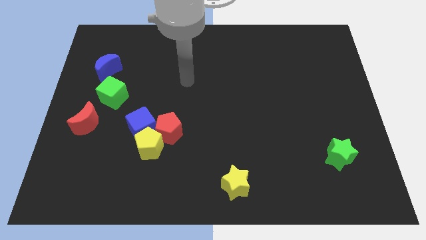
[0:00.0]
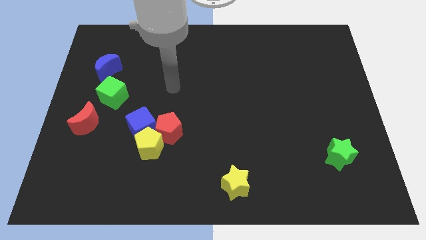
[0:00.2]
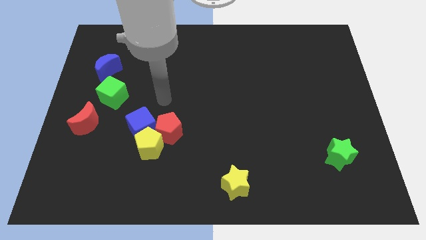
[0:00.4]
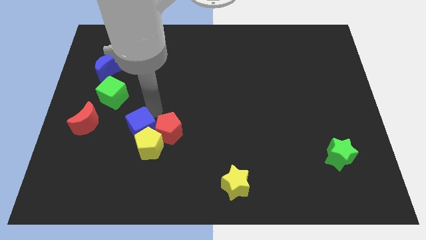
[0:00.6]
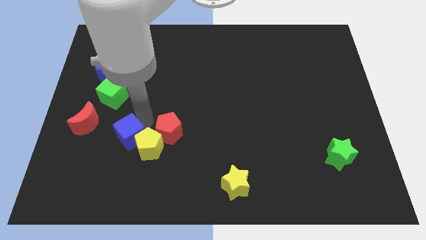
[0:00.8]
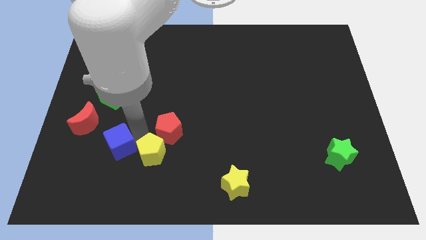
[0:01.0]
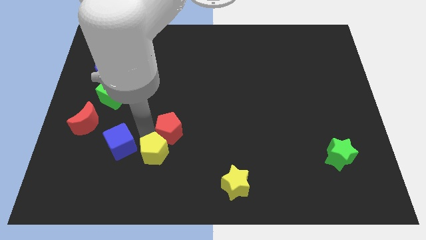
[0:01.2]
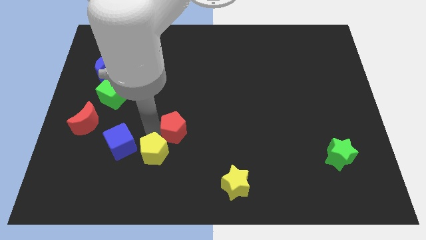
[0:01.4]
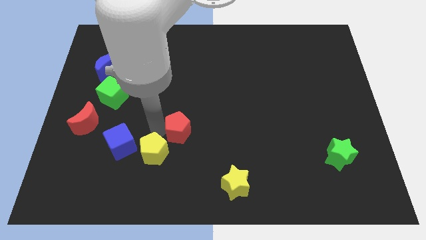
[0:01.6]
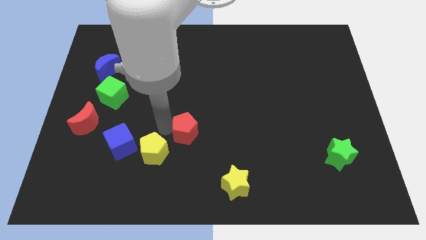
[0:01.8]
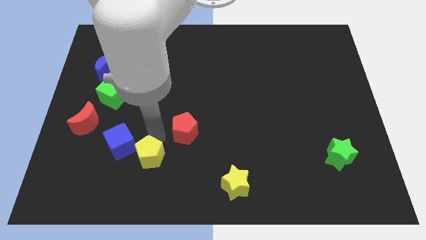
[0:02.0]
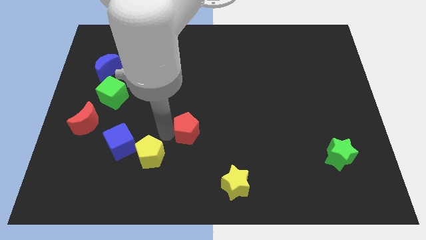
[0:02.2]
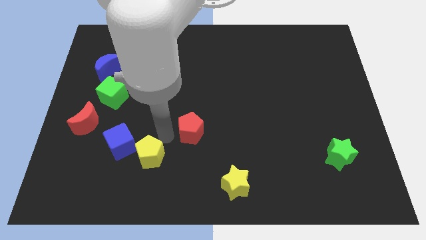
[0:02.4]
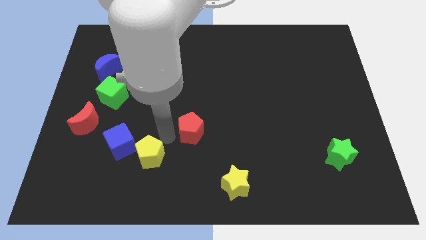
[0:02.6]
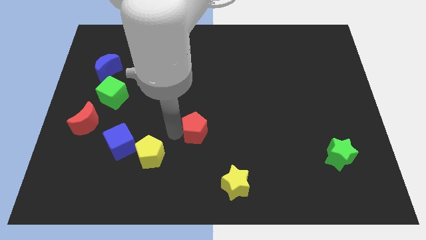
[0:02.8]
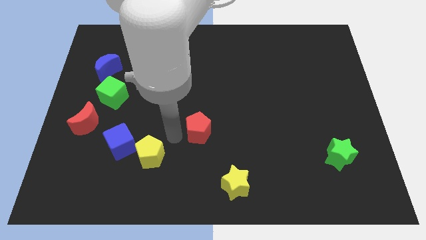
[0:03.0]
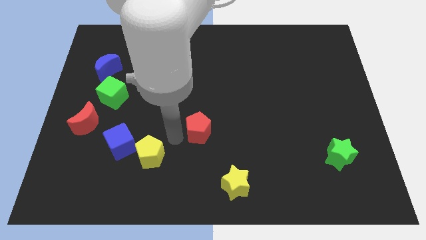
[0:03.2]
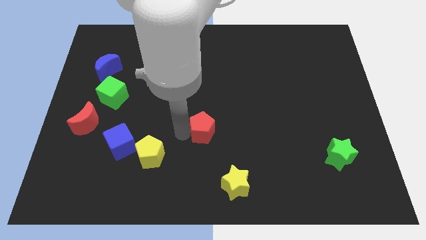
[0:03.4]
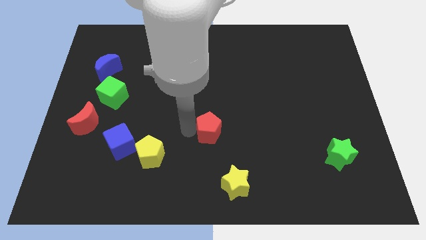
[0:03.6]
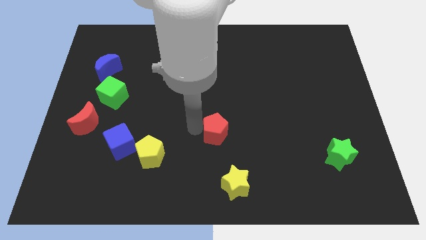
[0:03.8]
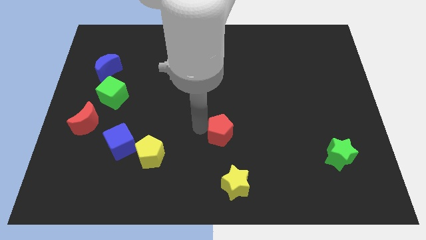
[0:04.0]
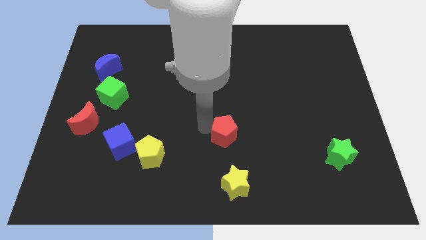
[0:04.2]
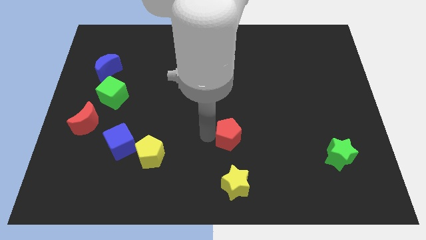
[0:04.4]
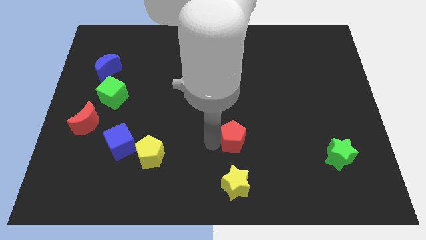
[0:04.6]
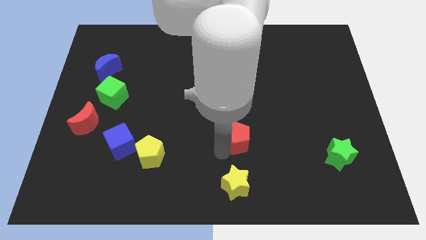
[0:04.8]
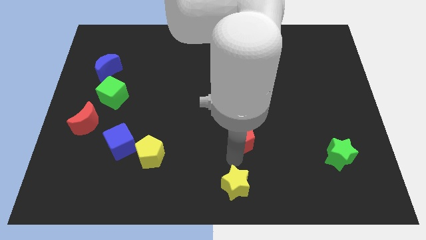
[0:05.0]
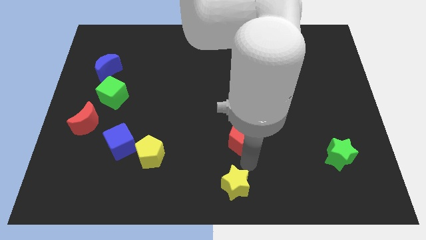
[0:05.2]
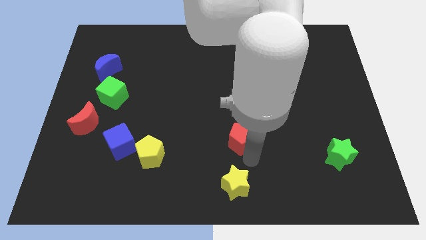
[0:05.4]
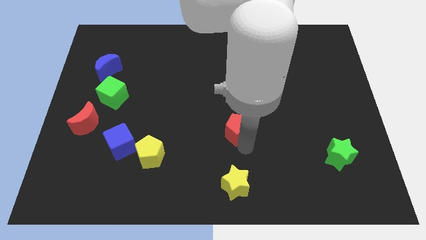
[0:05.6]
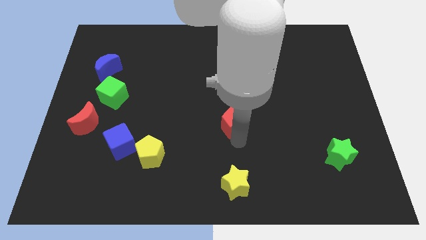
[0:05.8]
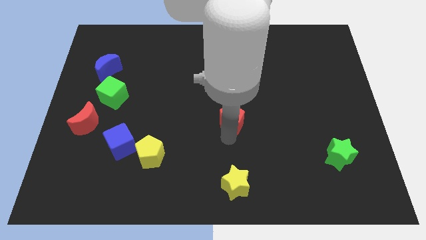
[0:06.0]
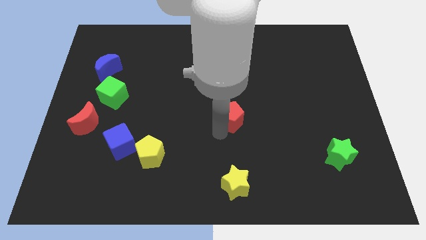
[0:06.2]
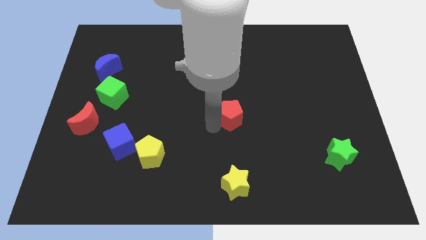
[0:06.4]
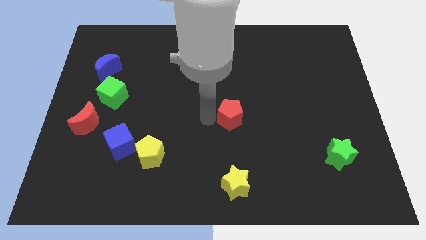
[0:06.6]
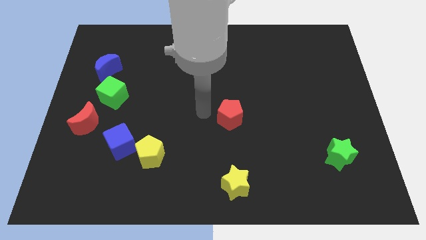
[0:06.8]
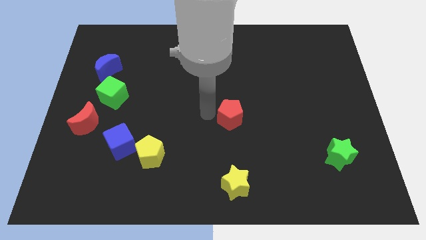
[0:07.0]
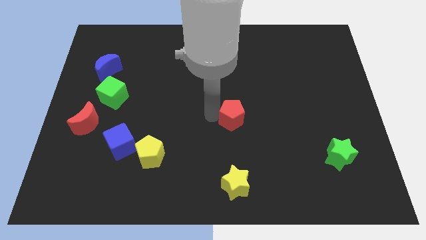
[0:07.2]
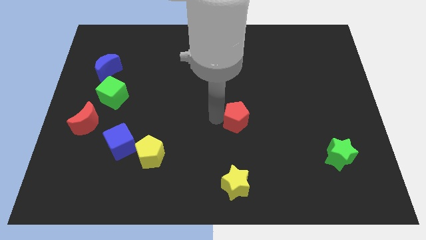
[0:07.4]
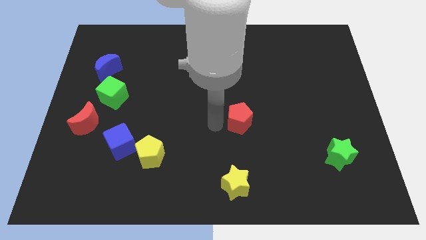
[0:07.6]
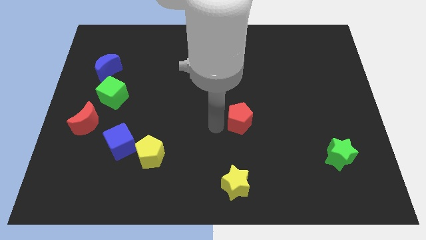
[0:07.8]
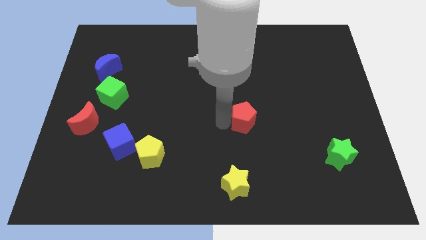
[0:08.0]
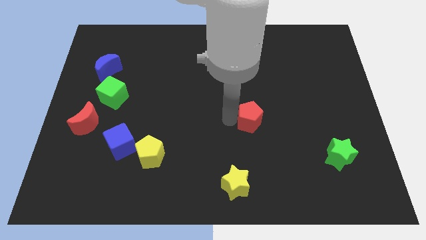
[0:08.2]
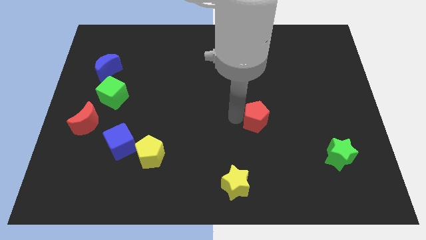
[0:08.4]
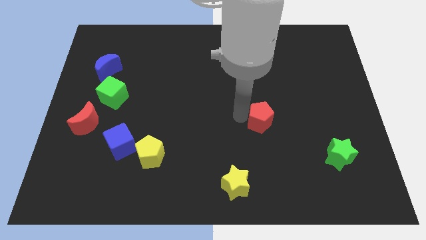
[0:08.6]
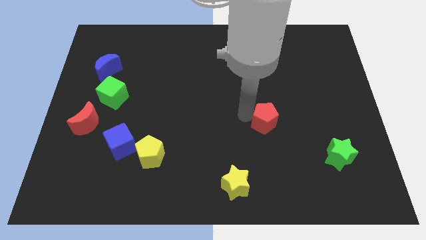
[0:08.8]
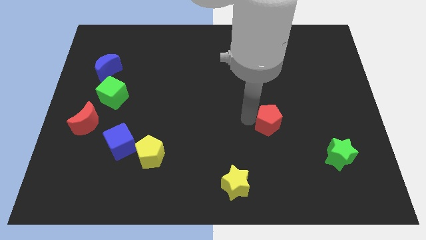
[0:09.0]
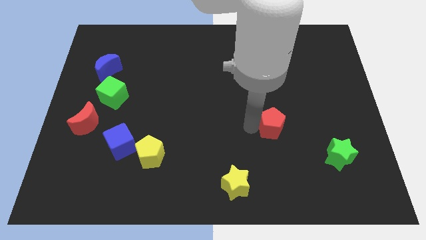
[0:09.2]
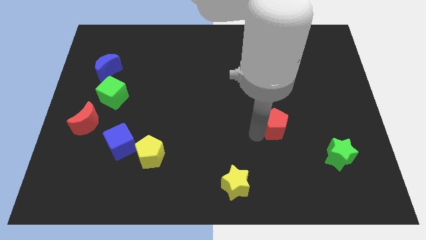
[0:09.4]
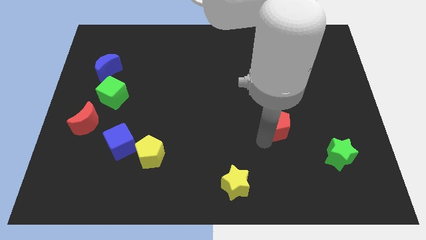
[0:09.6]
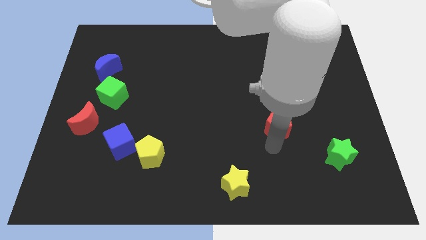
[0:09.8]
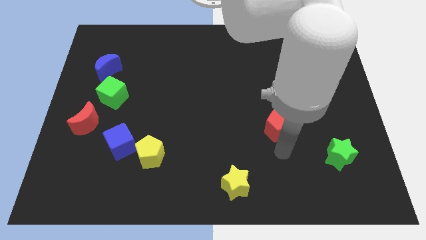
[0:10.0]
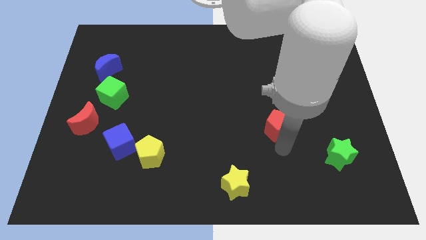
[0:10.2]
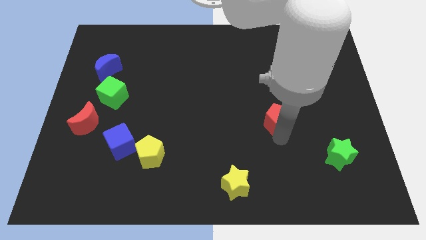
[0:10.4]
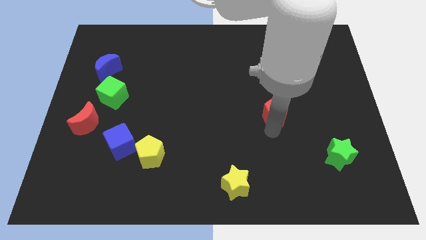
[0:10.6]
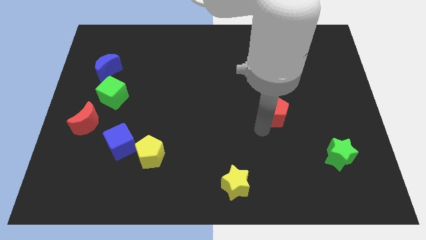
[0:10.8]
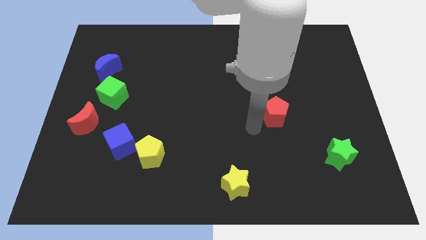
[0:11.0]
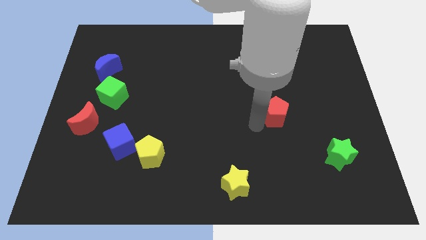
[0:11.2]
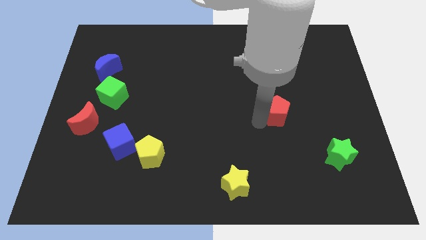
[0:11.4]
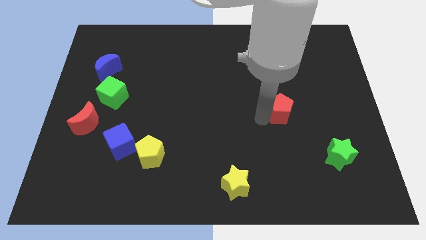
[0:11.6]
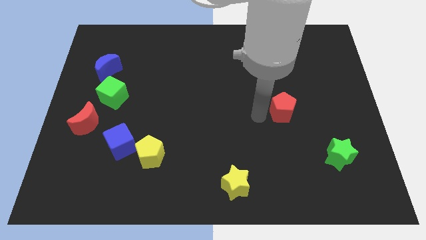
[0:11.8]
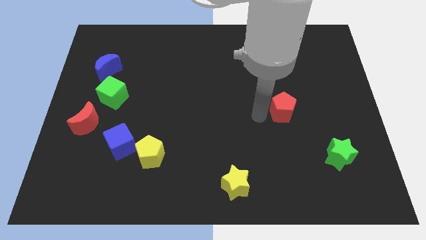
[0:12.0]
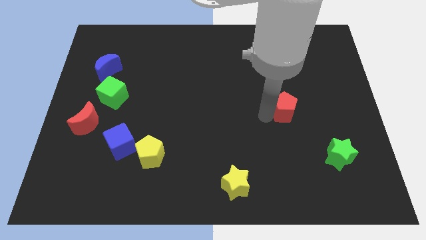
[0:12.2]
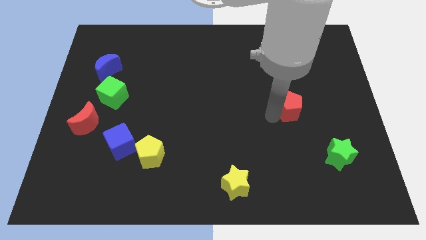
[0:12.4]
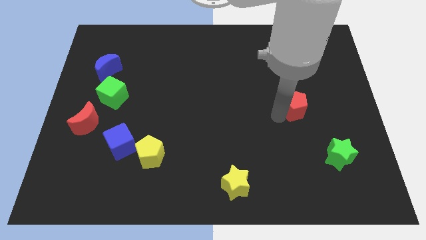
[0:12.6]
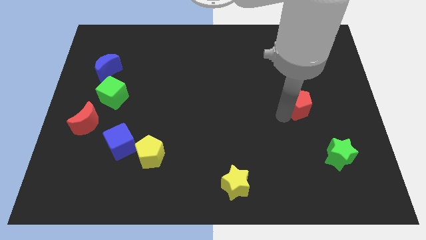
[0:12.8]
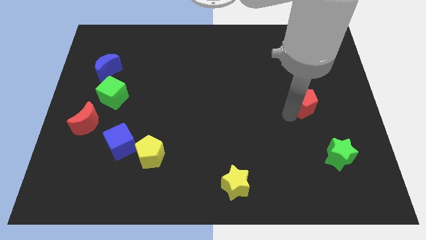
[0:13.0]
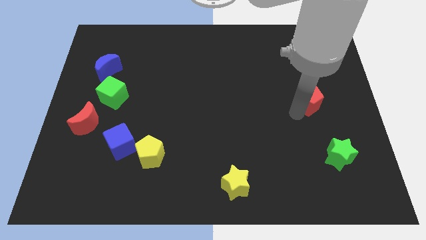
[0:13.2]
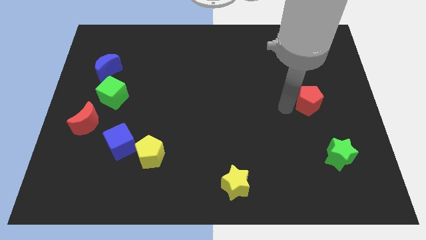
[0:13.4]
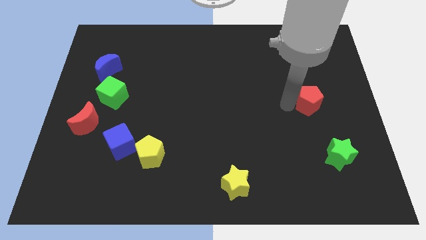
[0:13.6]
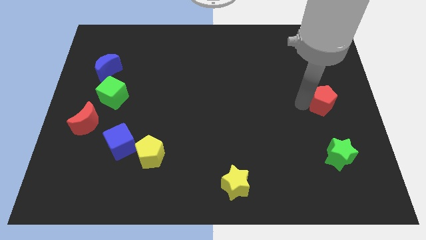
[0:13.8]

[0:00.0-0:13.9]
move the red pentagon to the center right
